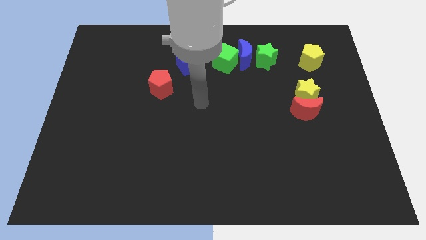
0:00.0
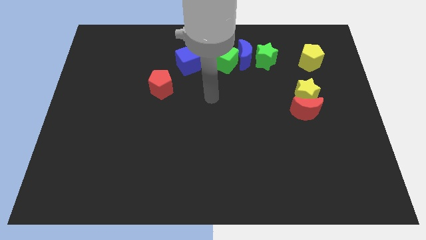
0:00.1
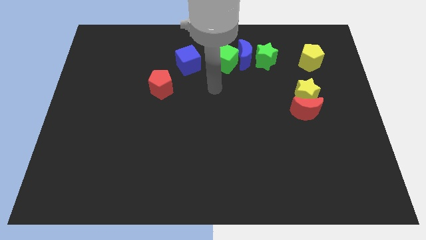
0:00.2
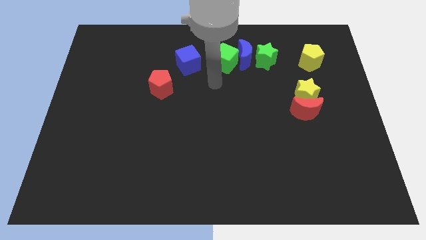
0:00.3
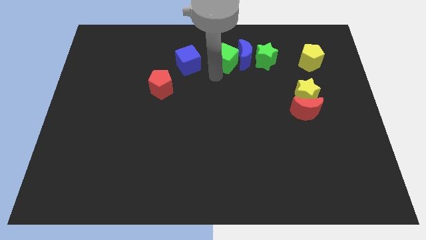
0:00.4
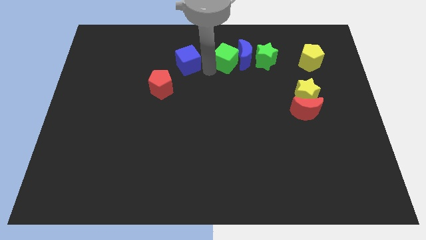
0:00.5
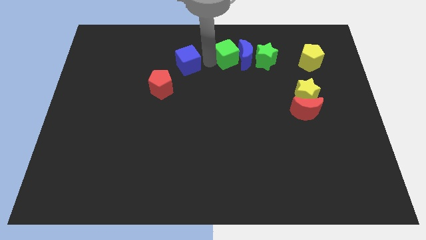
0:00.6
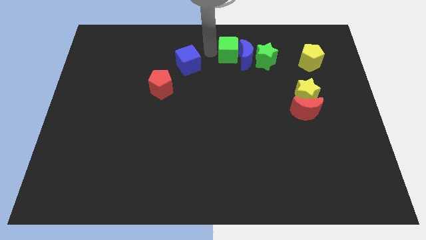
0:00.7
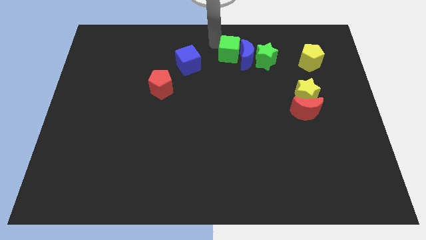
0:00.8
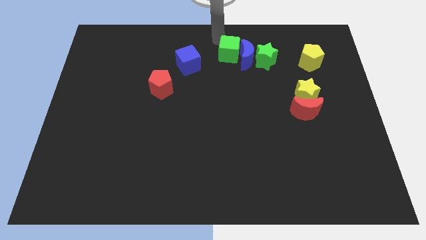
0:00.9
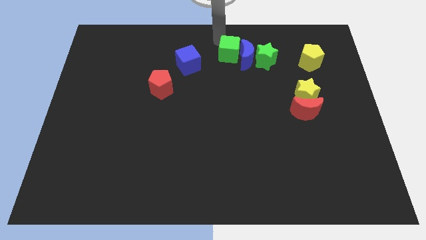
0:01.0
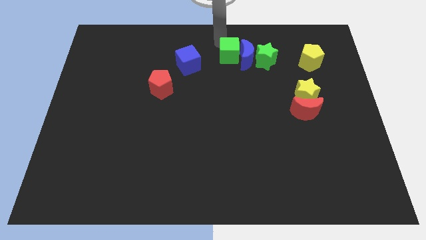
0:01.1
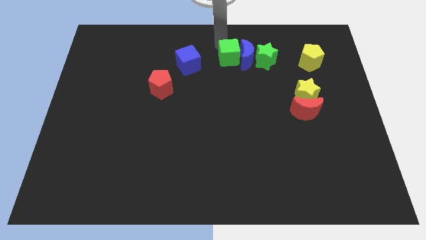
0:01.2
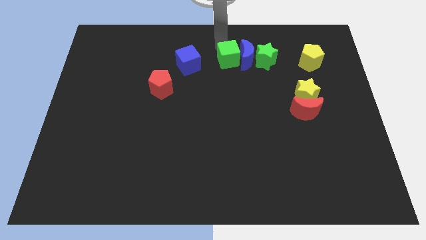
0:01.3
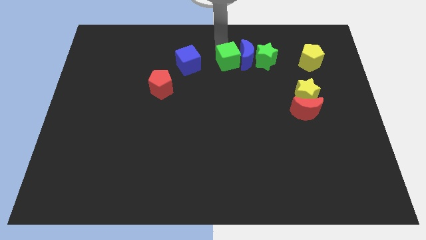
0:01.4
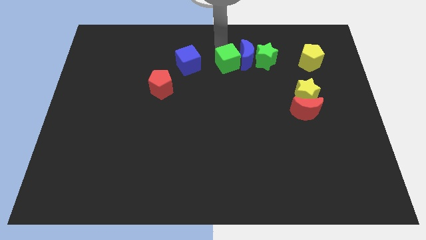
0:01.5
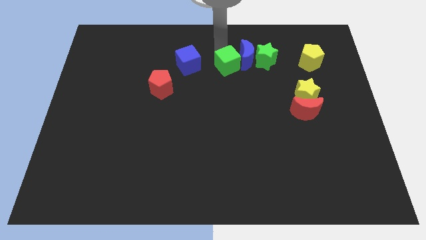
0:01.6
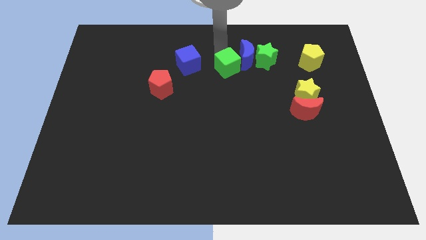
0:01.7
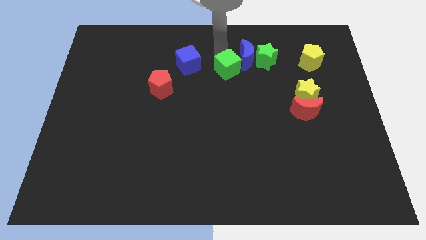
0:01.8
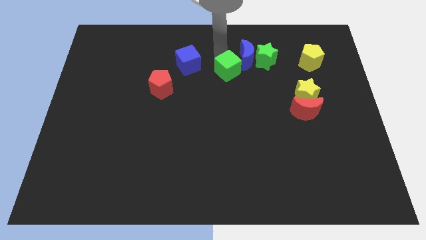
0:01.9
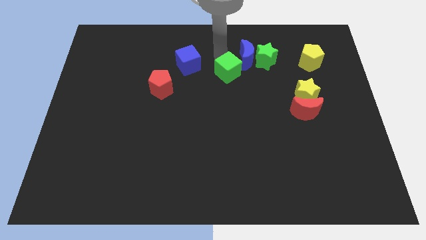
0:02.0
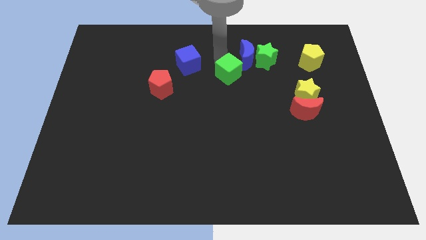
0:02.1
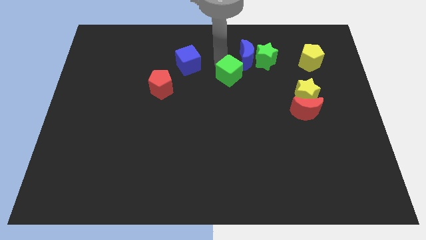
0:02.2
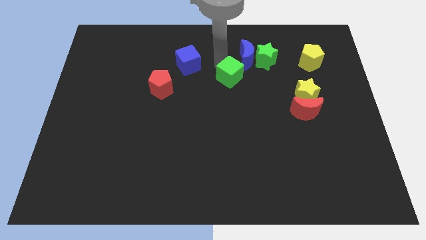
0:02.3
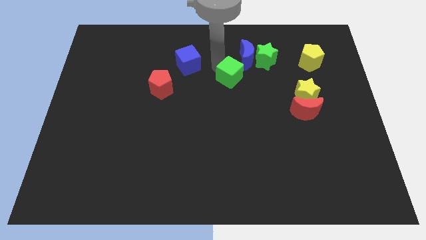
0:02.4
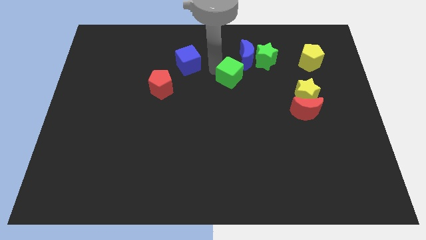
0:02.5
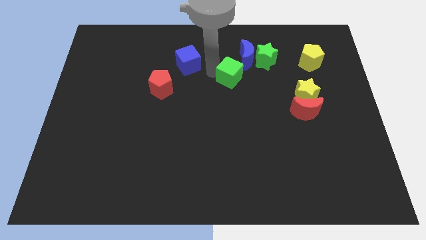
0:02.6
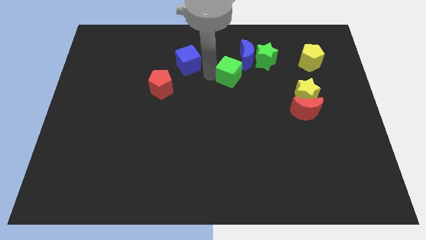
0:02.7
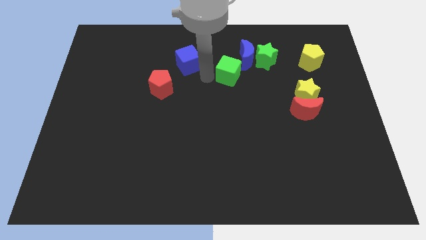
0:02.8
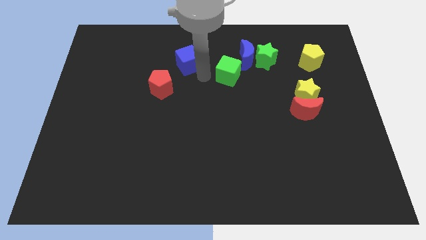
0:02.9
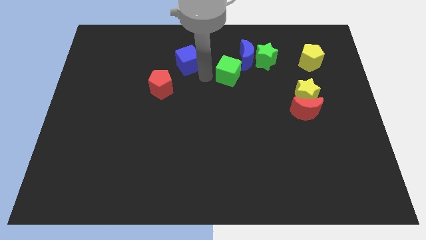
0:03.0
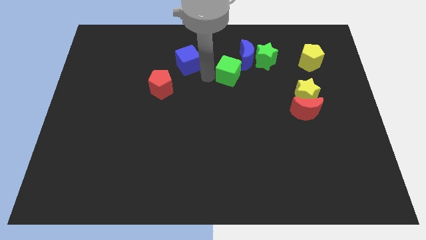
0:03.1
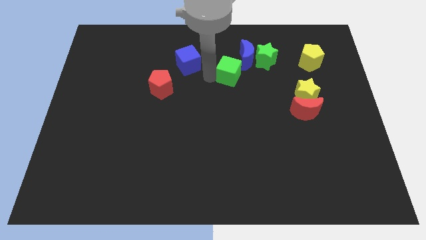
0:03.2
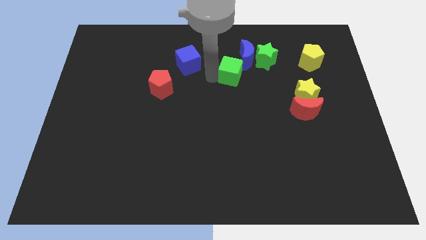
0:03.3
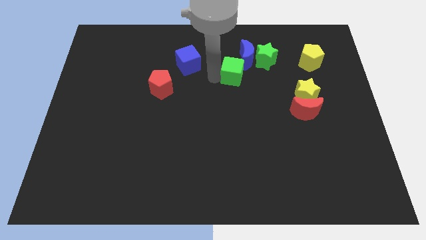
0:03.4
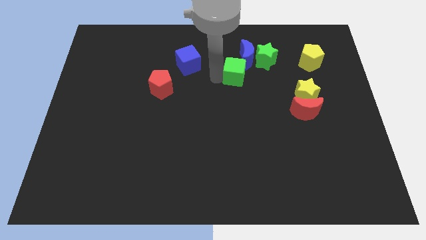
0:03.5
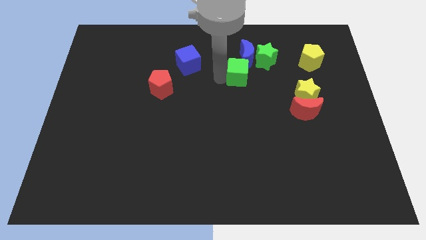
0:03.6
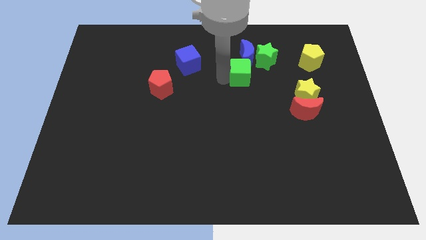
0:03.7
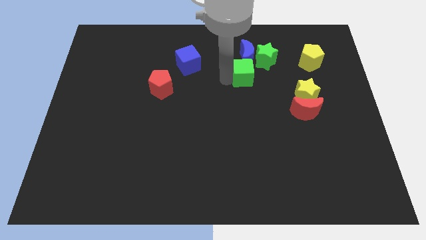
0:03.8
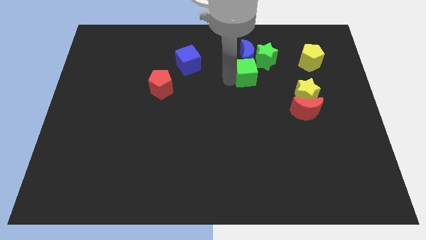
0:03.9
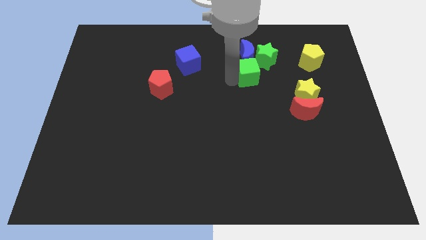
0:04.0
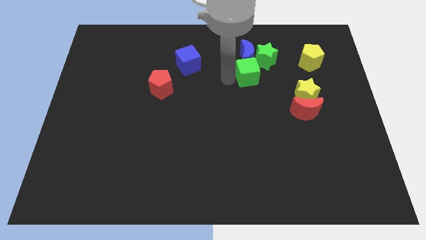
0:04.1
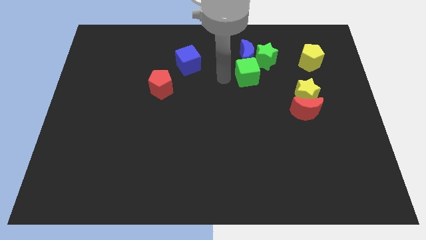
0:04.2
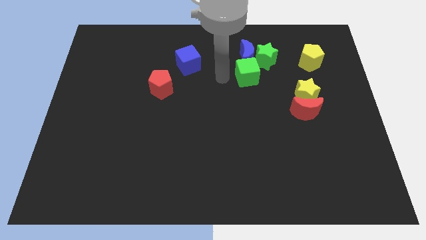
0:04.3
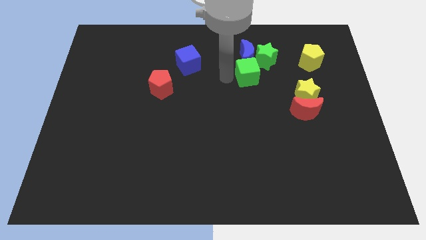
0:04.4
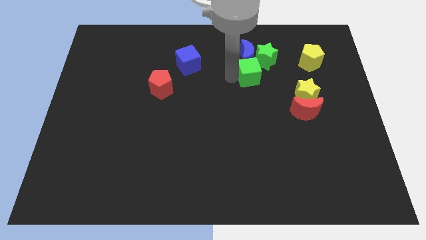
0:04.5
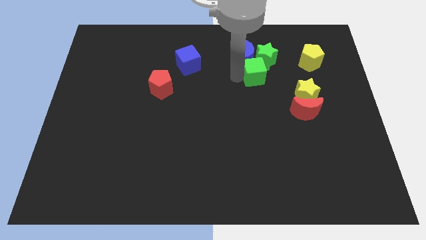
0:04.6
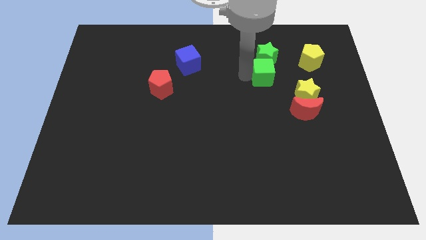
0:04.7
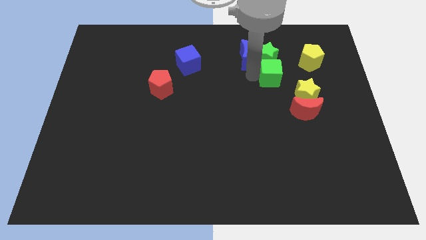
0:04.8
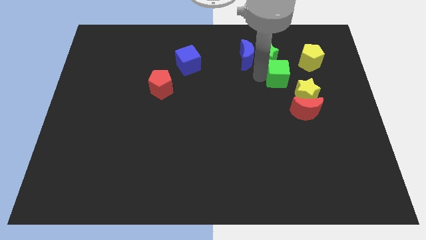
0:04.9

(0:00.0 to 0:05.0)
slide the green cube diagonally down and to the left of the yellow pentagon

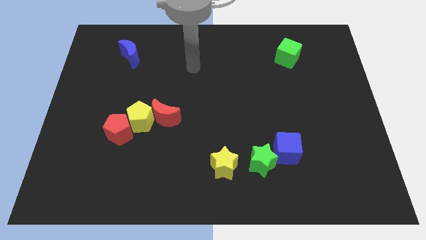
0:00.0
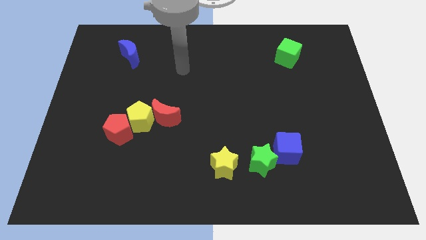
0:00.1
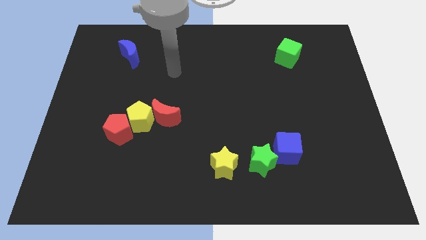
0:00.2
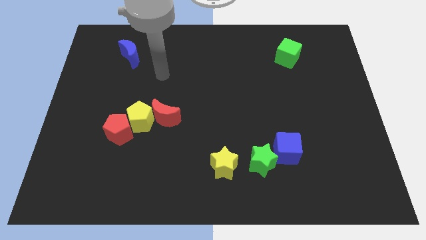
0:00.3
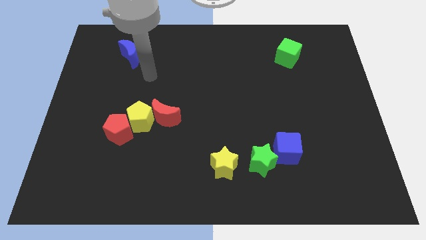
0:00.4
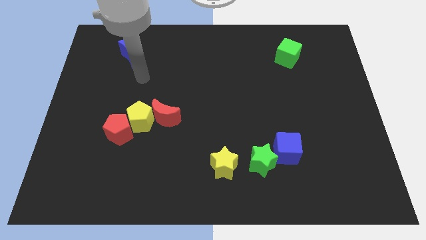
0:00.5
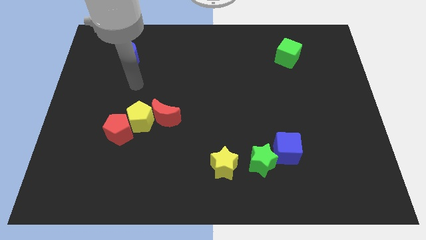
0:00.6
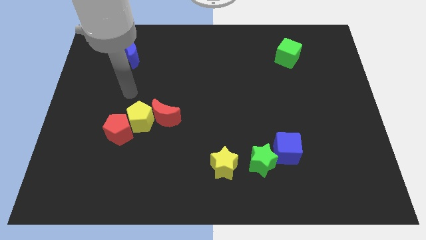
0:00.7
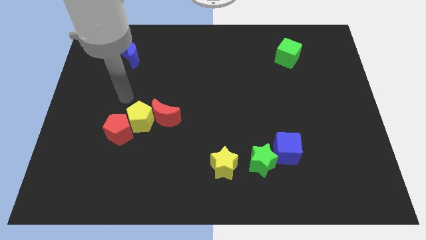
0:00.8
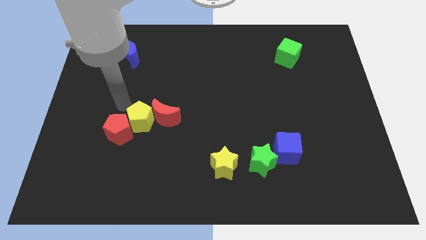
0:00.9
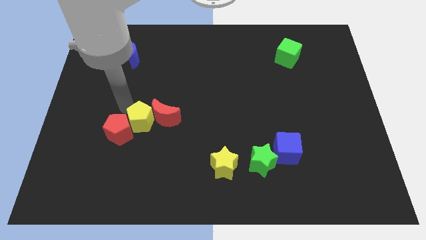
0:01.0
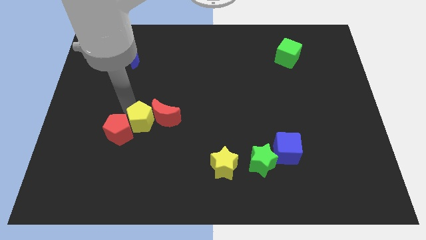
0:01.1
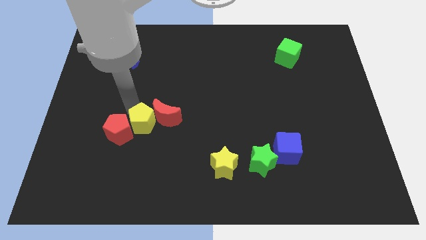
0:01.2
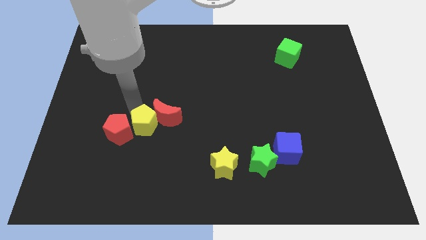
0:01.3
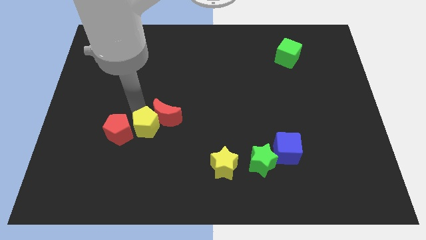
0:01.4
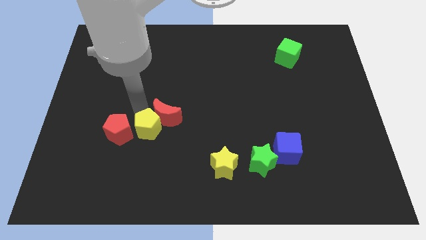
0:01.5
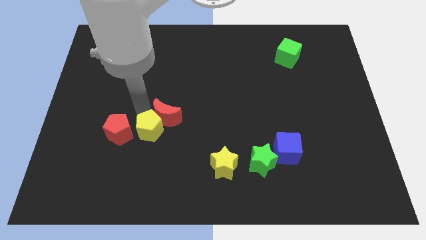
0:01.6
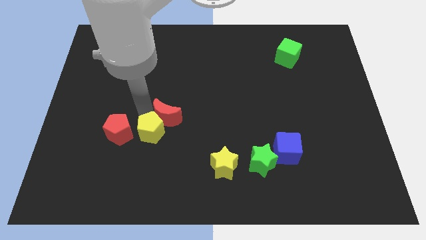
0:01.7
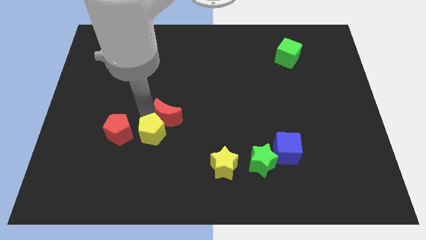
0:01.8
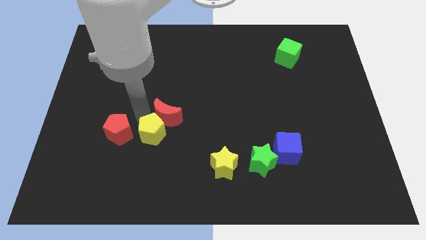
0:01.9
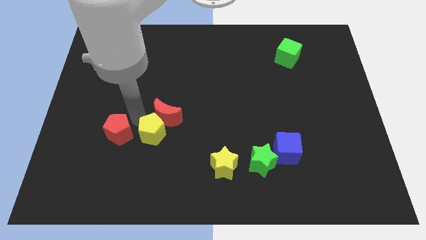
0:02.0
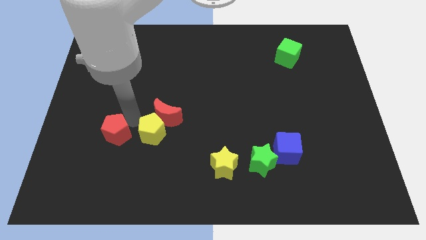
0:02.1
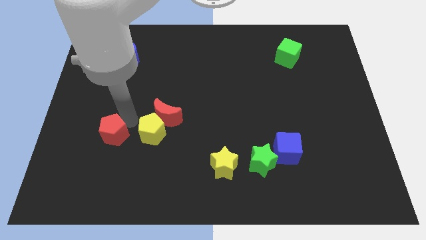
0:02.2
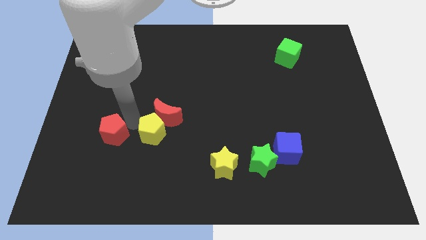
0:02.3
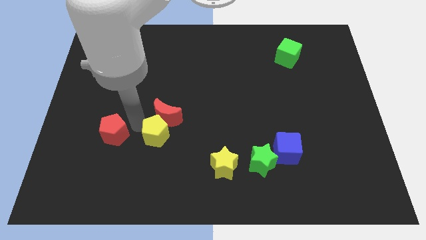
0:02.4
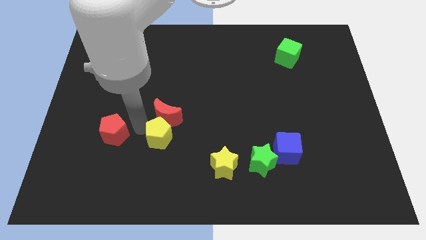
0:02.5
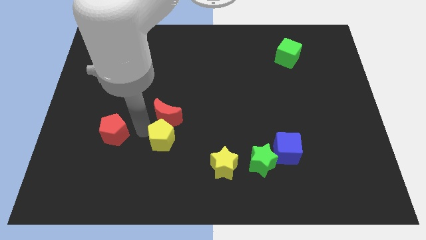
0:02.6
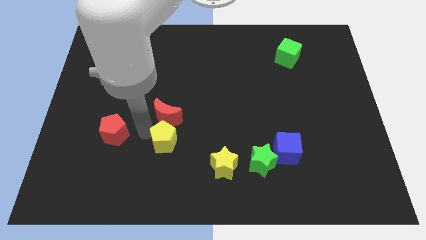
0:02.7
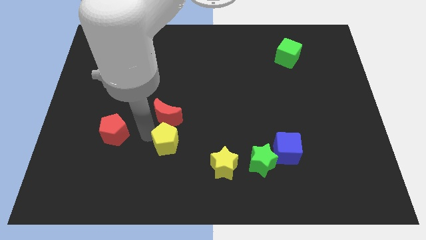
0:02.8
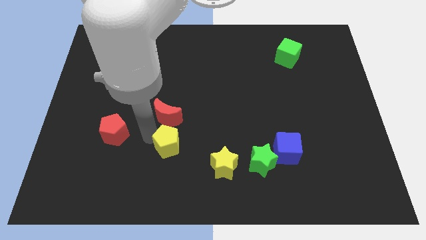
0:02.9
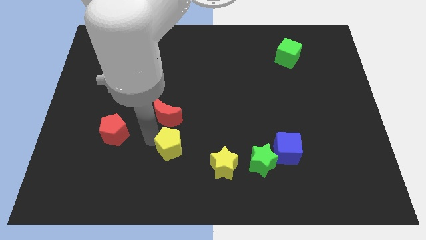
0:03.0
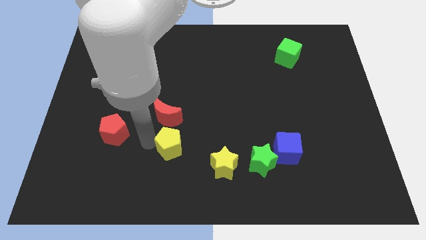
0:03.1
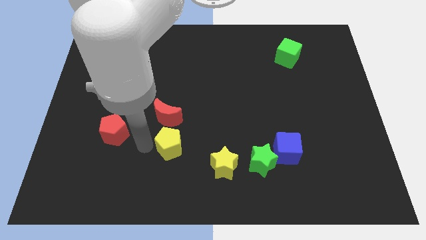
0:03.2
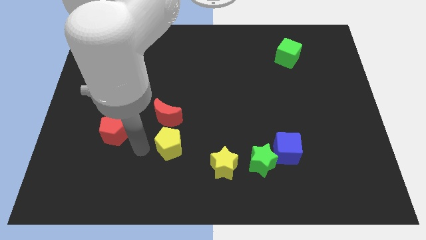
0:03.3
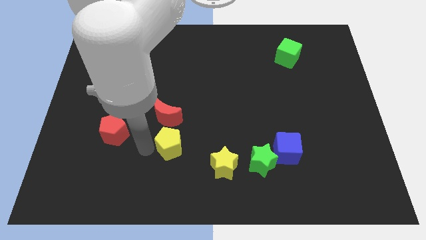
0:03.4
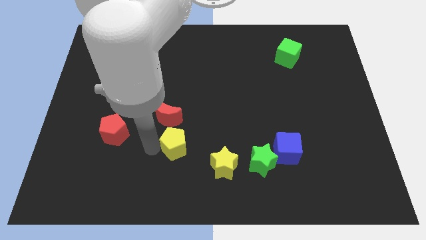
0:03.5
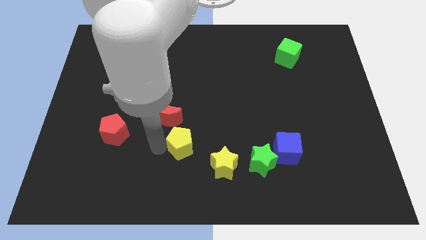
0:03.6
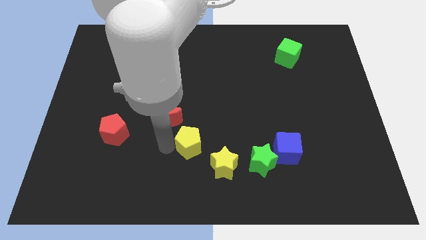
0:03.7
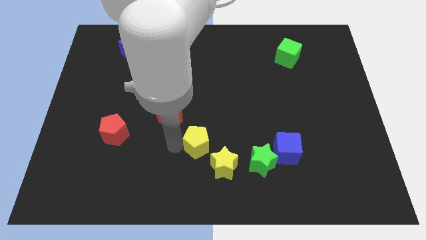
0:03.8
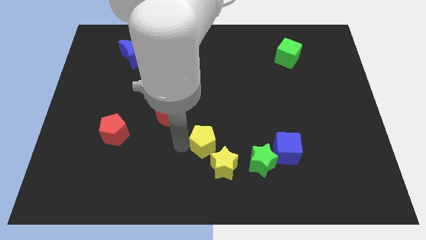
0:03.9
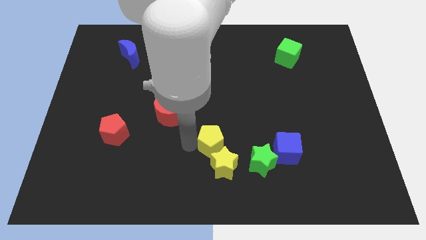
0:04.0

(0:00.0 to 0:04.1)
put the yellow pentagon to the top left of the green star
